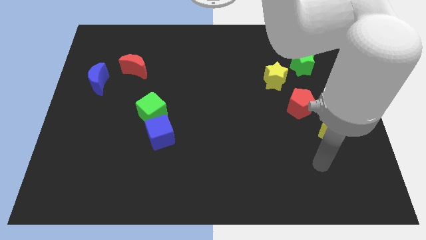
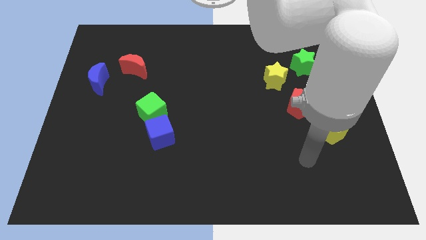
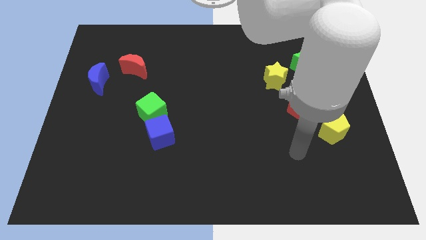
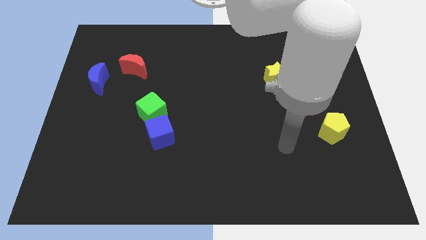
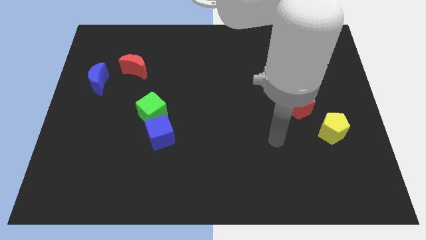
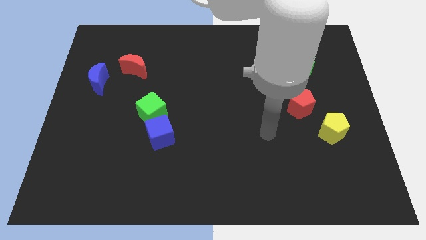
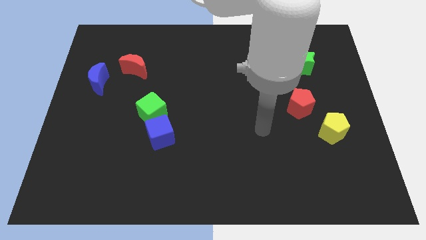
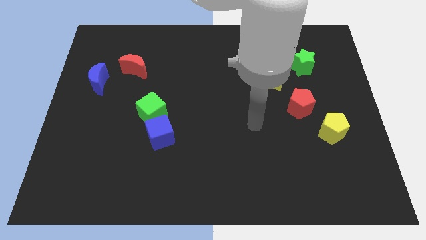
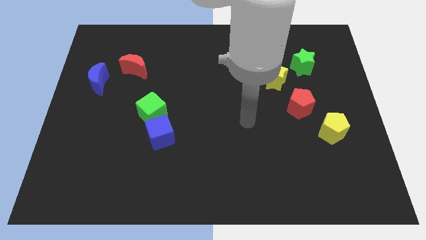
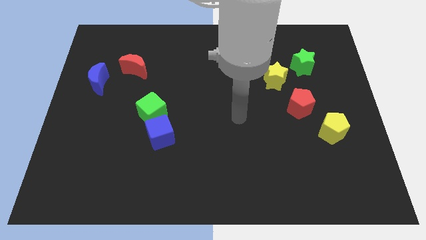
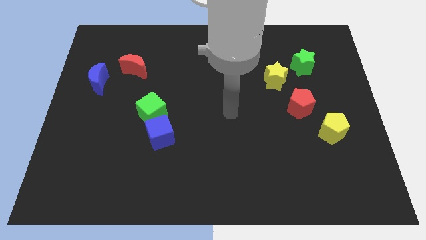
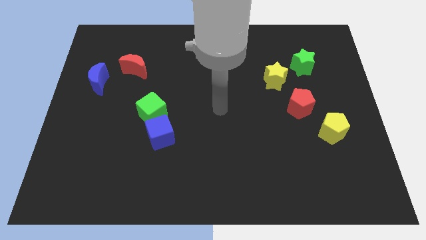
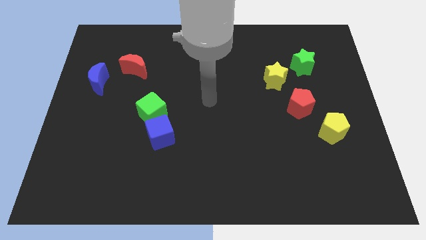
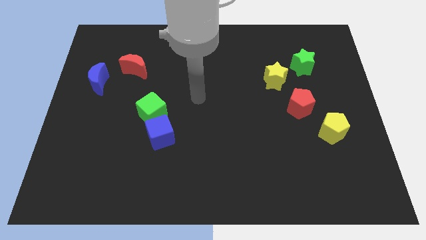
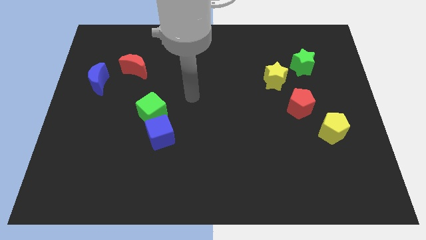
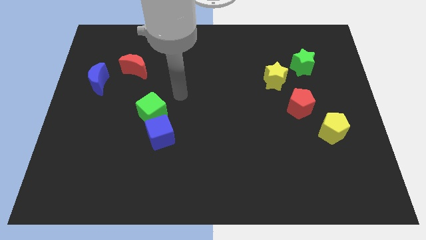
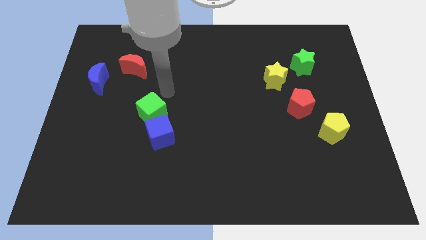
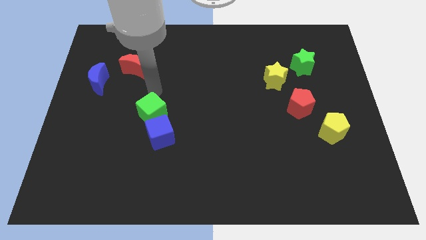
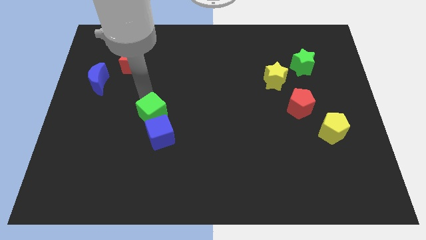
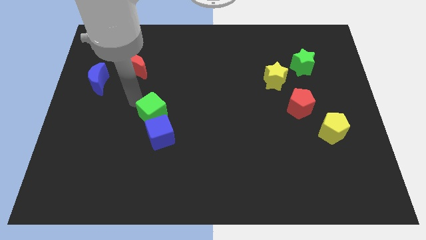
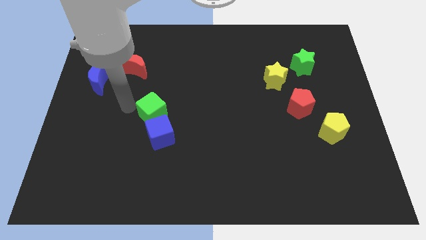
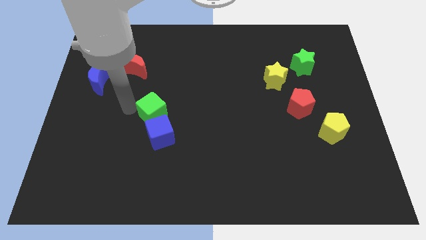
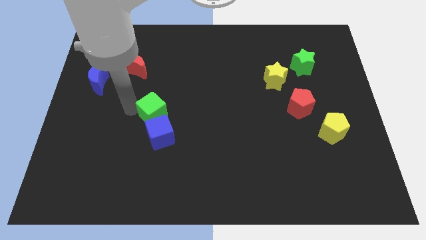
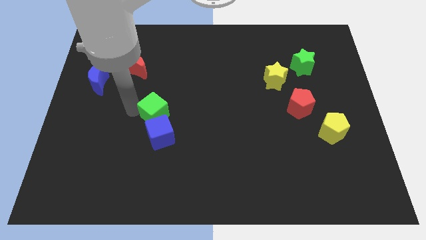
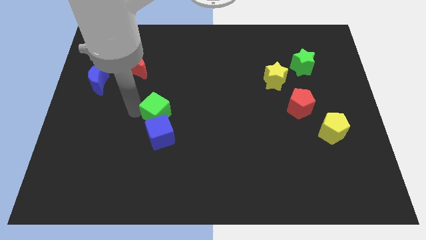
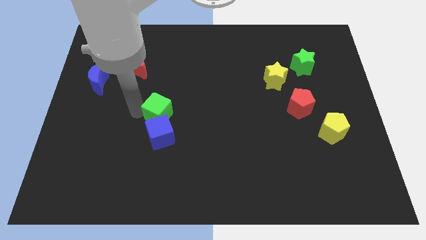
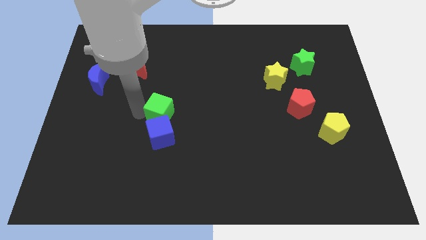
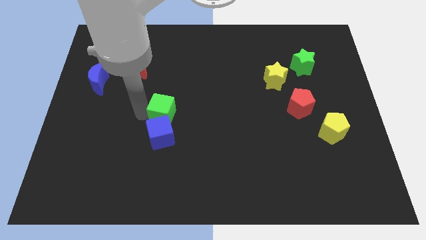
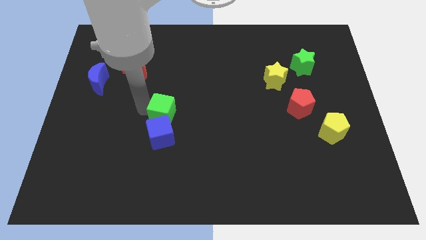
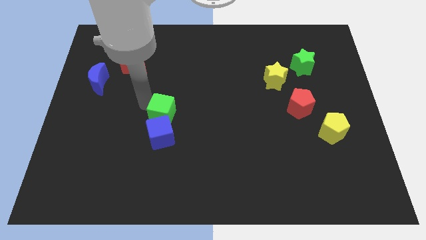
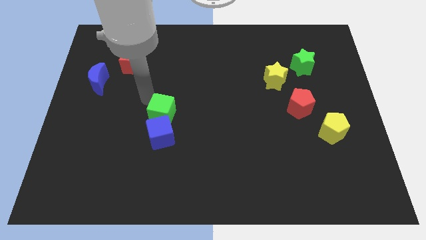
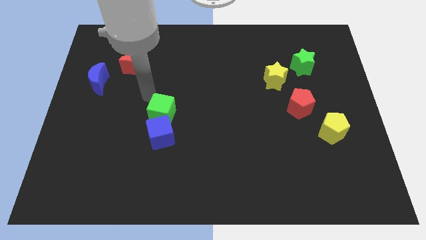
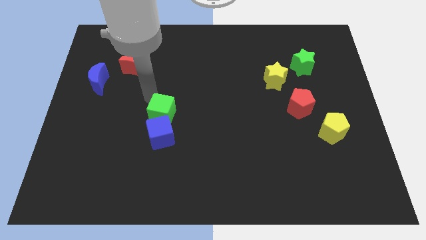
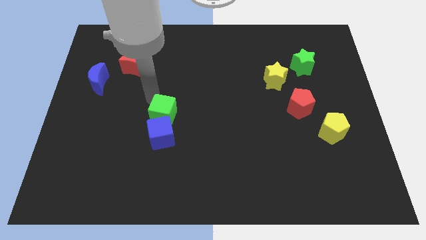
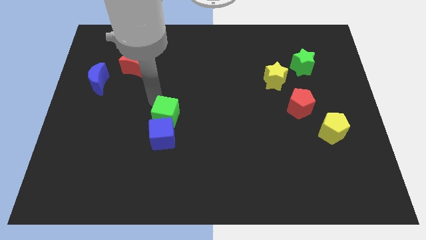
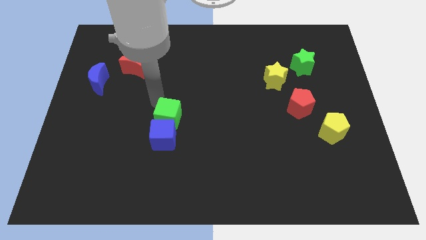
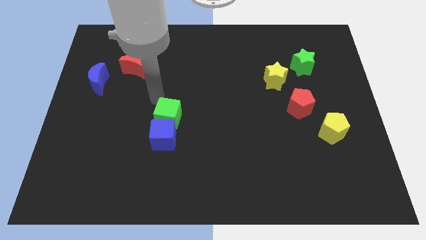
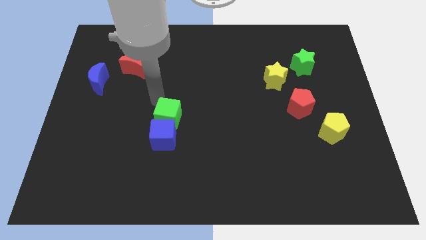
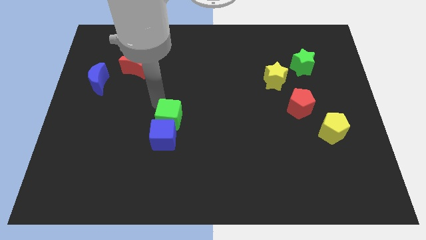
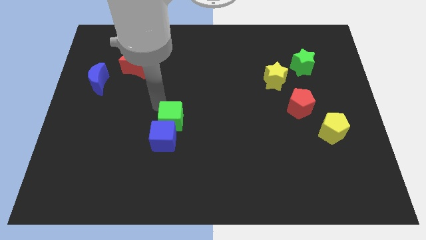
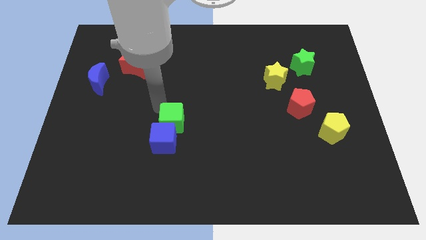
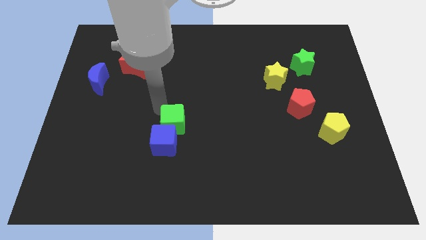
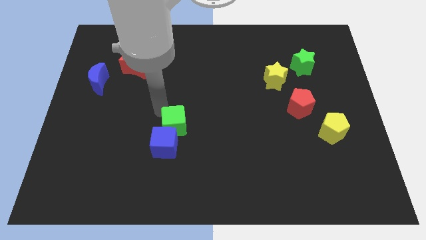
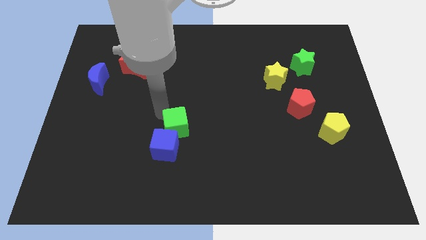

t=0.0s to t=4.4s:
slightly move the green cube downwards and right

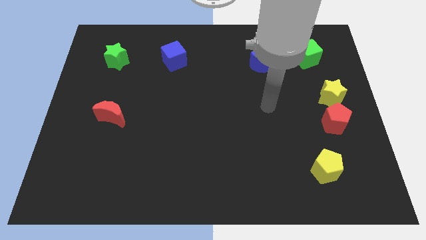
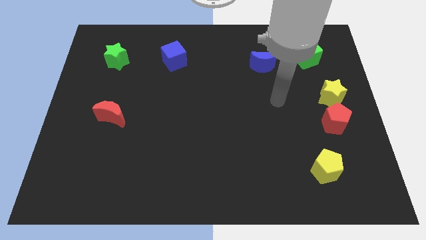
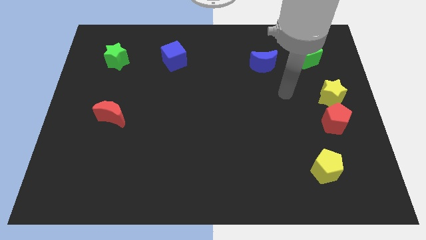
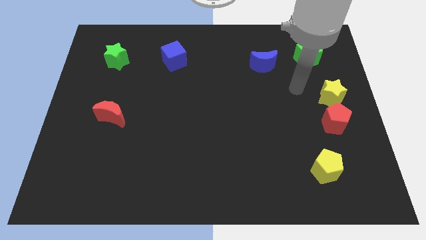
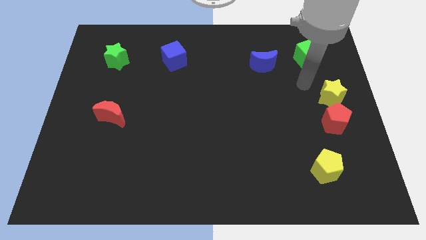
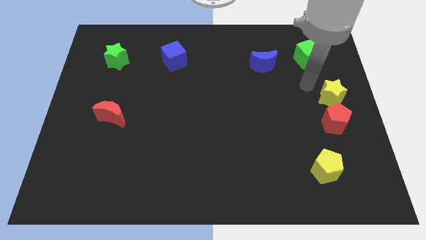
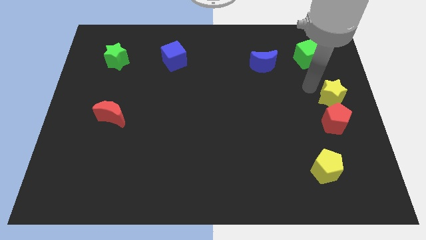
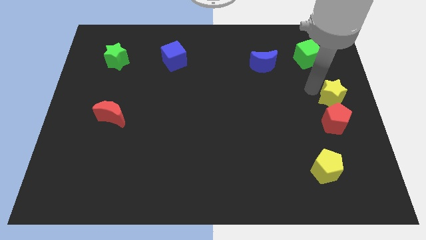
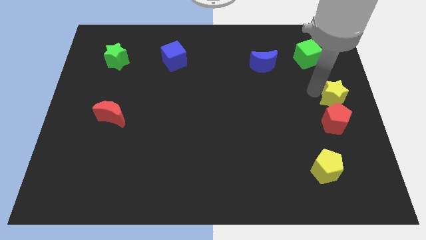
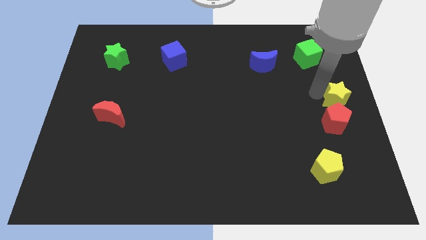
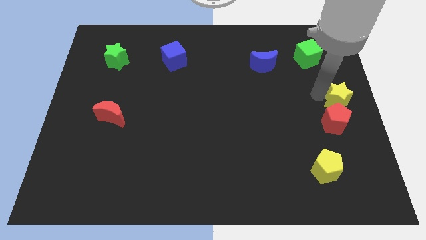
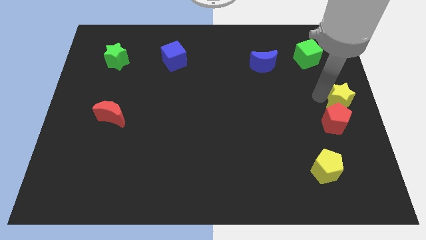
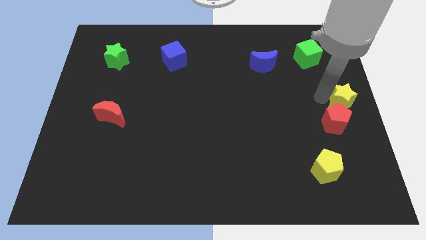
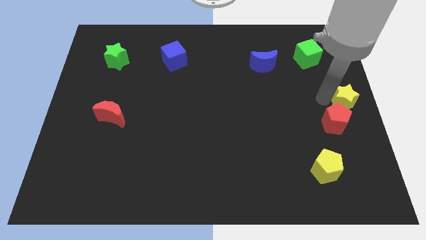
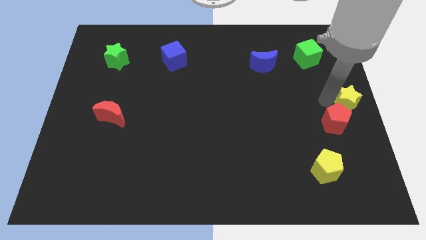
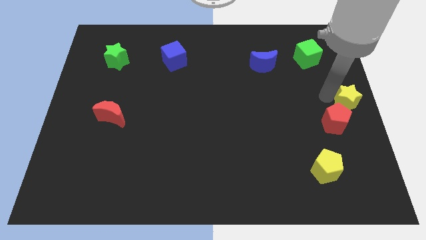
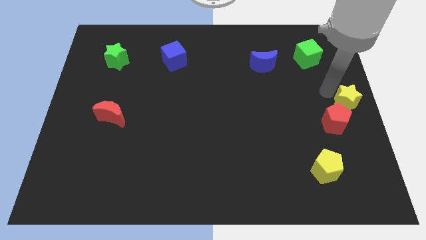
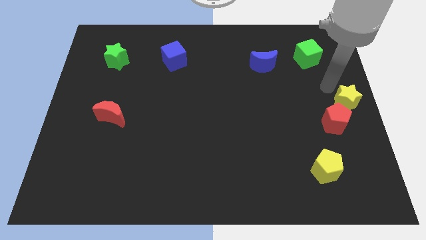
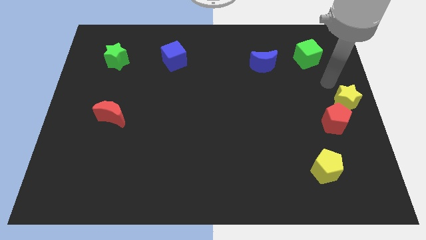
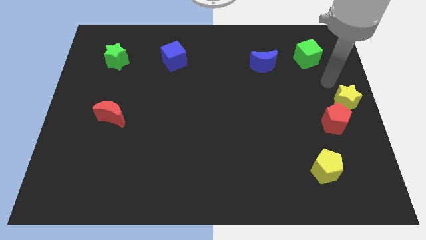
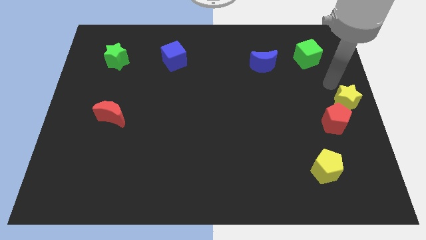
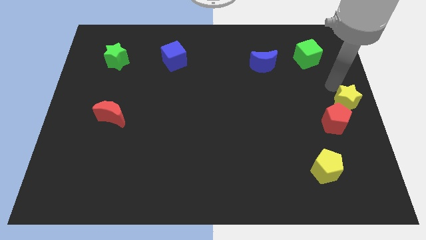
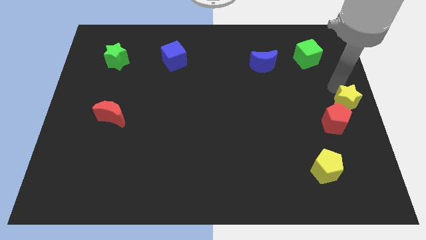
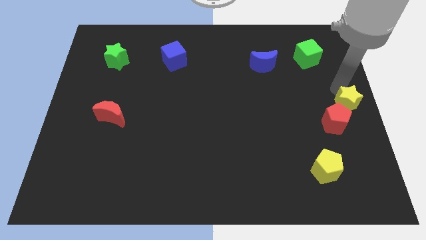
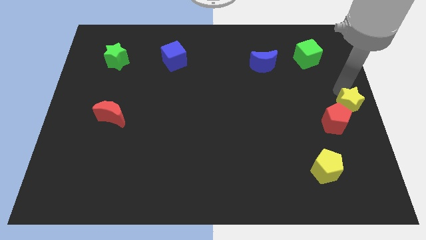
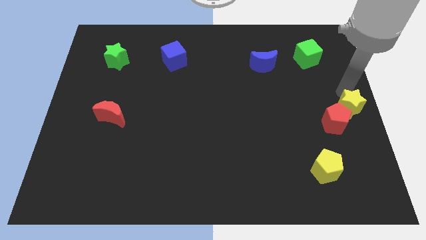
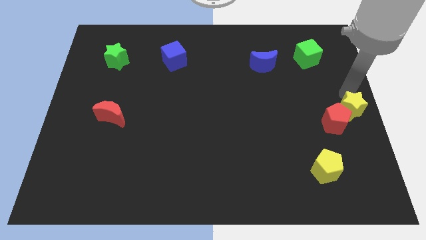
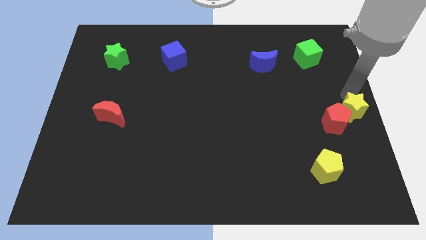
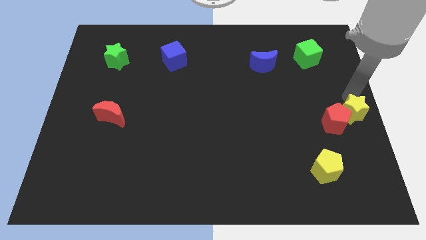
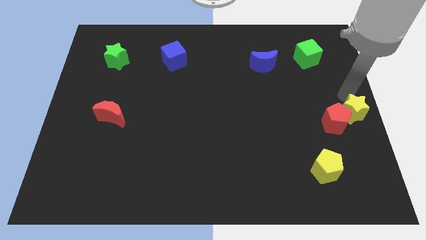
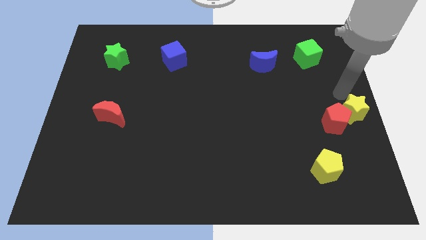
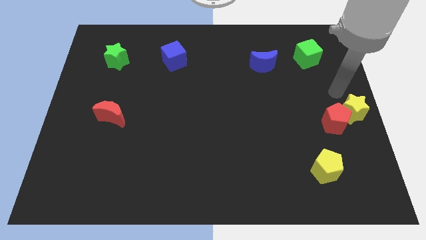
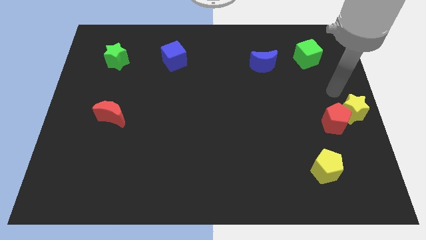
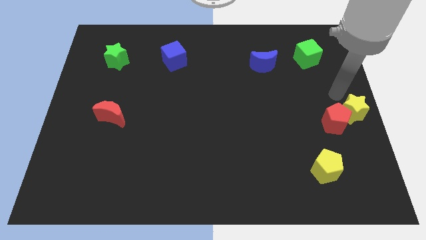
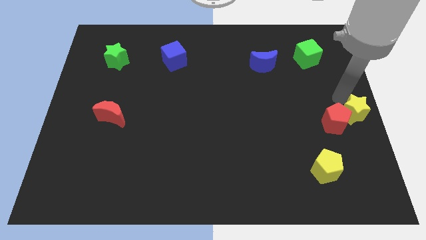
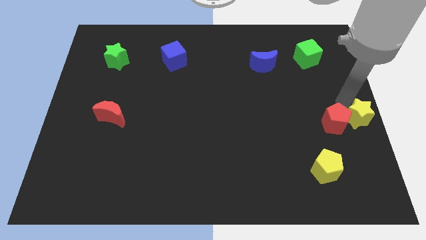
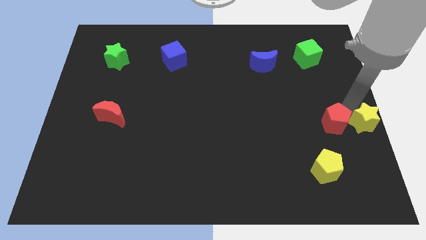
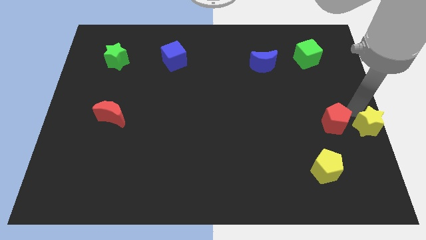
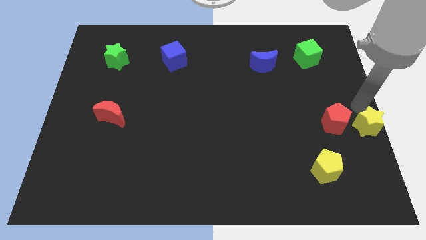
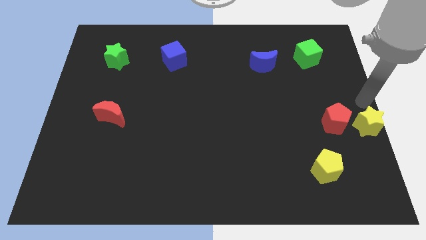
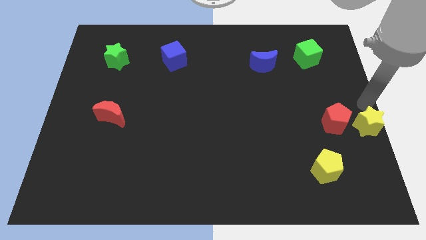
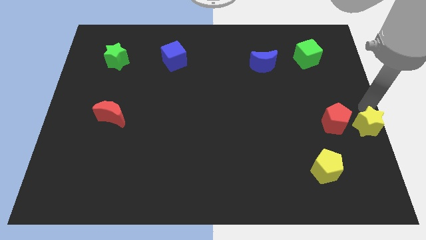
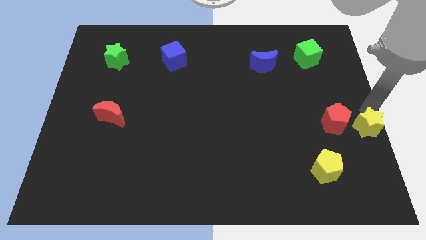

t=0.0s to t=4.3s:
push the yellow star downwards a little
